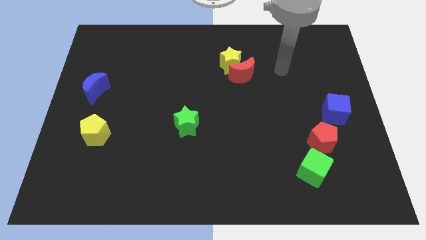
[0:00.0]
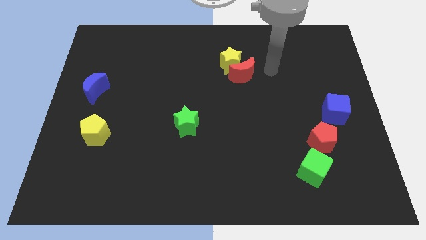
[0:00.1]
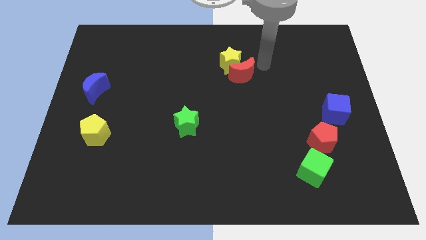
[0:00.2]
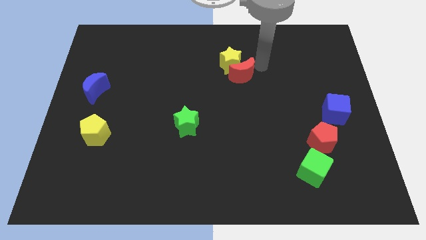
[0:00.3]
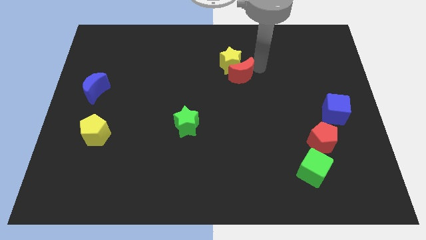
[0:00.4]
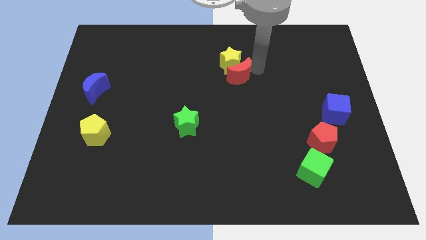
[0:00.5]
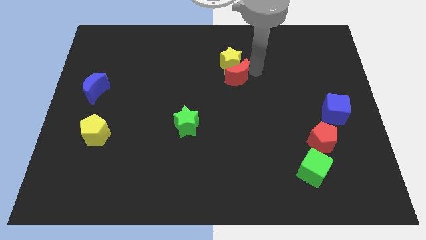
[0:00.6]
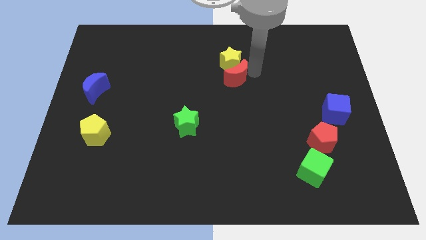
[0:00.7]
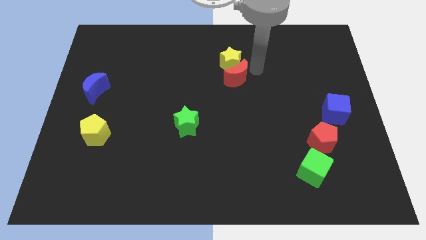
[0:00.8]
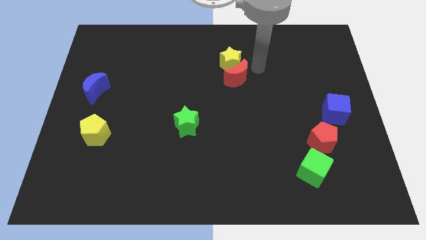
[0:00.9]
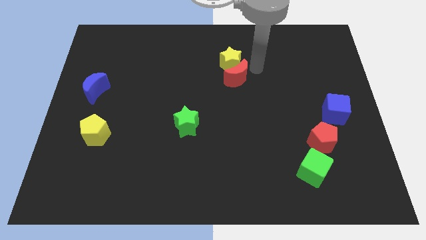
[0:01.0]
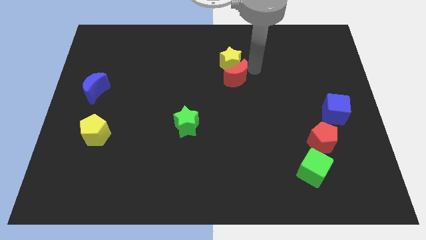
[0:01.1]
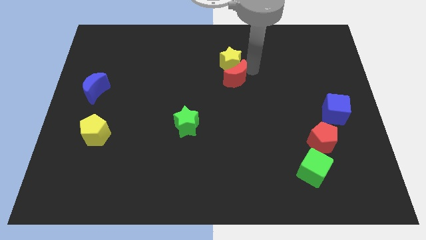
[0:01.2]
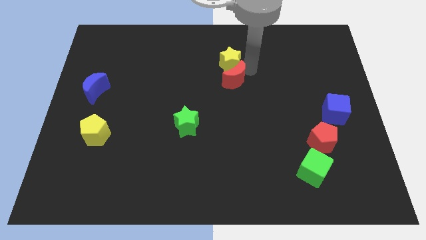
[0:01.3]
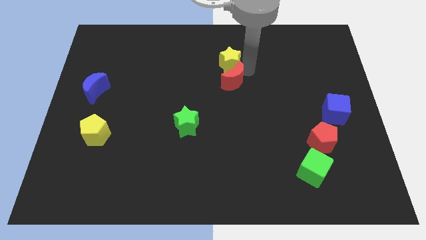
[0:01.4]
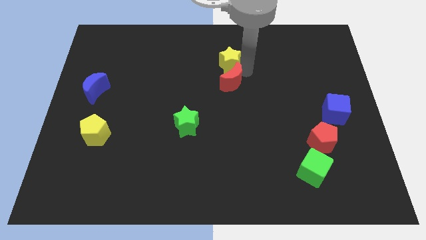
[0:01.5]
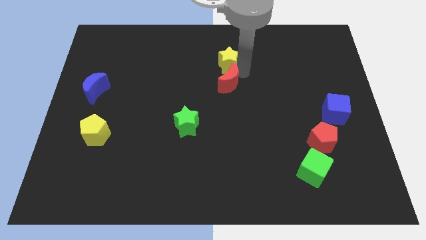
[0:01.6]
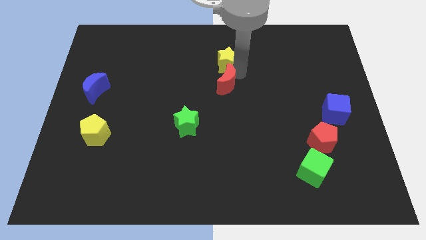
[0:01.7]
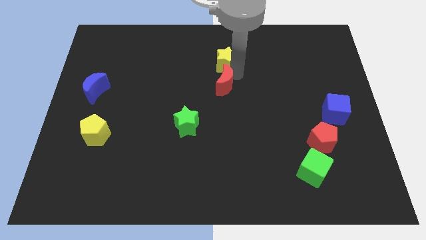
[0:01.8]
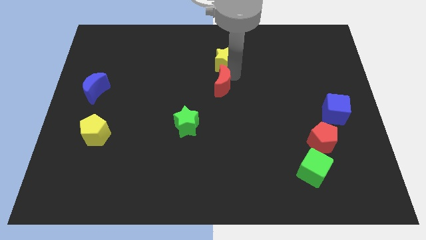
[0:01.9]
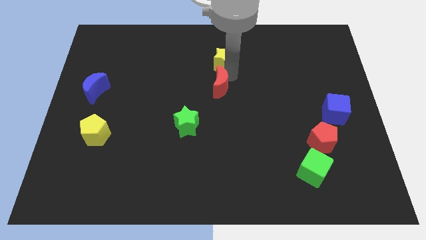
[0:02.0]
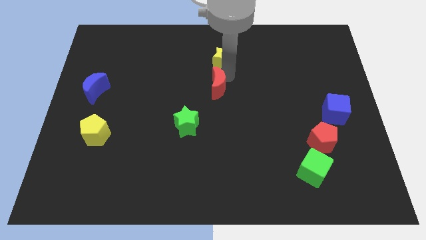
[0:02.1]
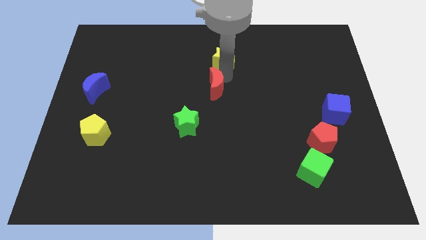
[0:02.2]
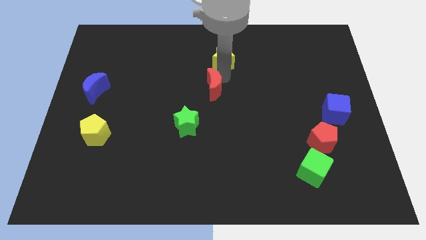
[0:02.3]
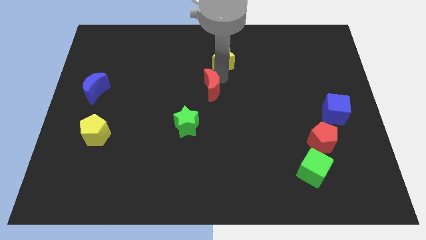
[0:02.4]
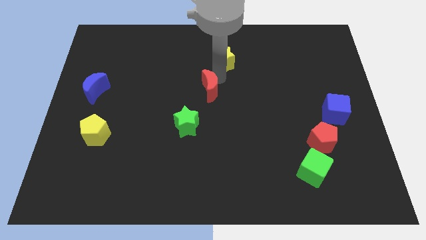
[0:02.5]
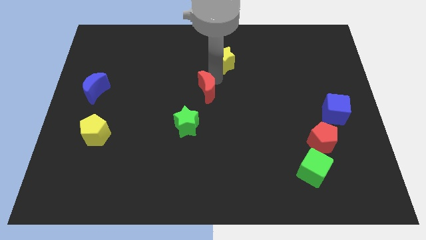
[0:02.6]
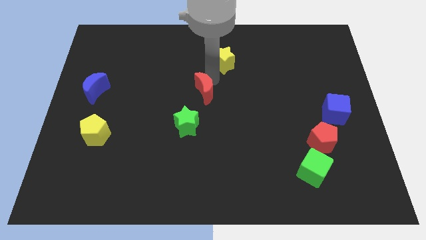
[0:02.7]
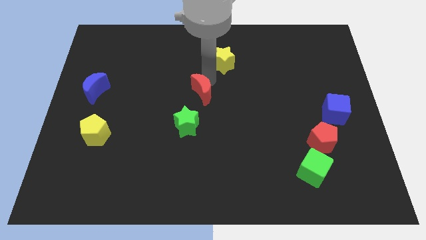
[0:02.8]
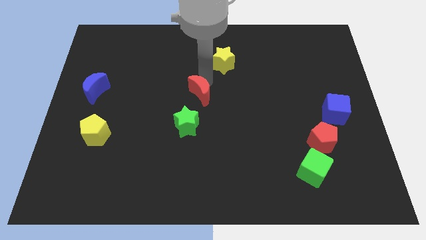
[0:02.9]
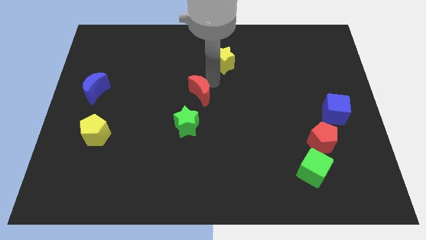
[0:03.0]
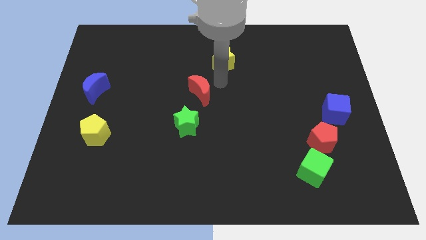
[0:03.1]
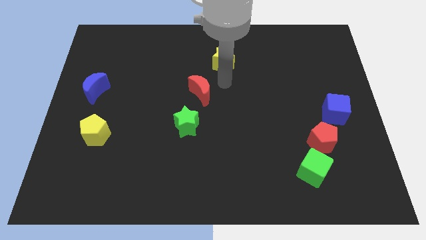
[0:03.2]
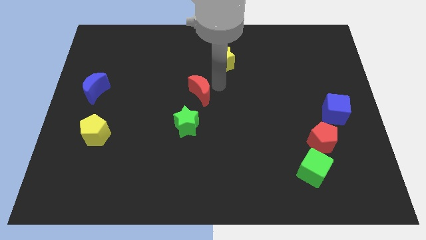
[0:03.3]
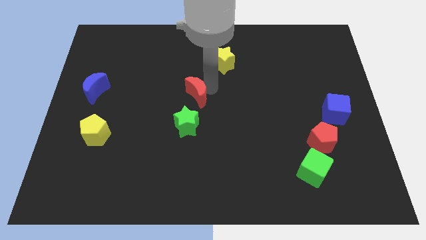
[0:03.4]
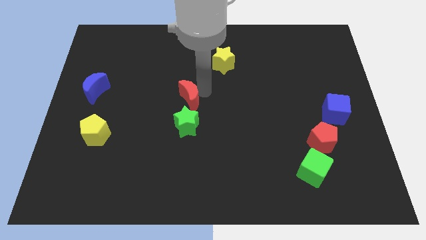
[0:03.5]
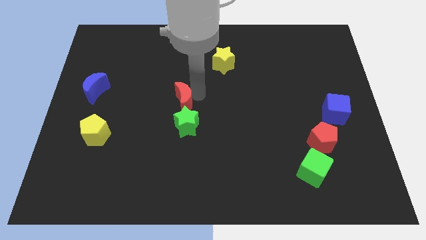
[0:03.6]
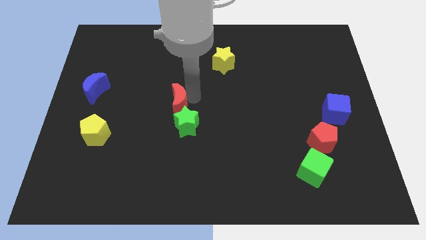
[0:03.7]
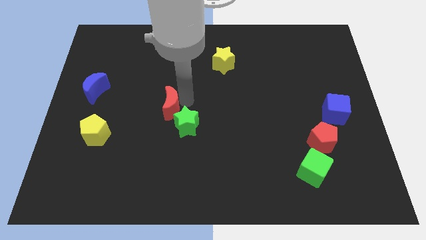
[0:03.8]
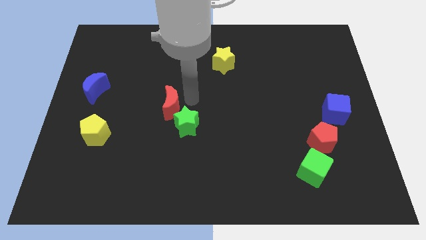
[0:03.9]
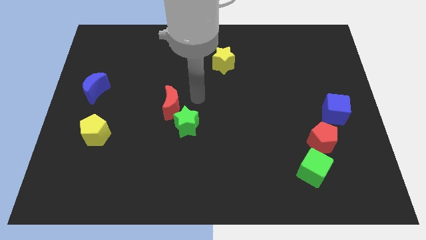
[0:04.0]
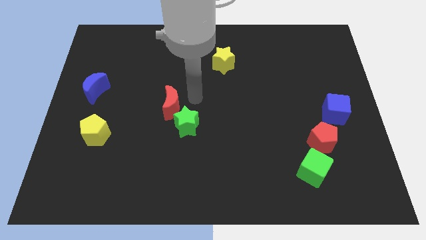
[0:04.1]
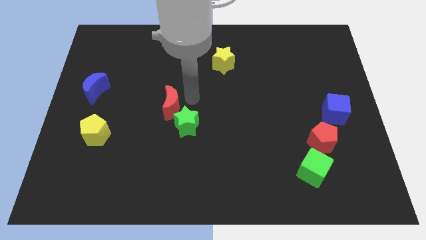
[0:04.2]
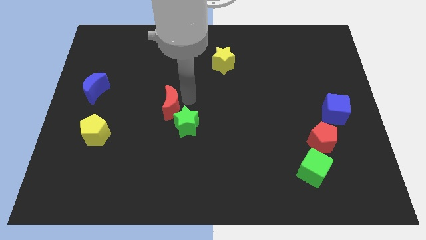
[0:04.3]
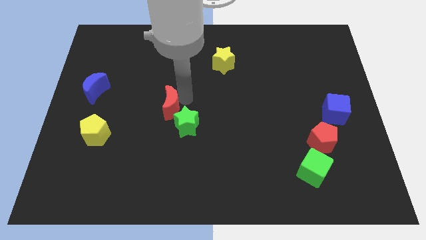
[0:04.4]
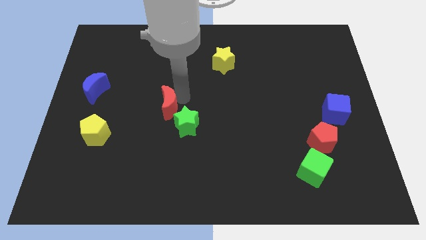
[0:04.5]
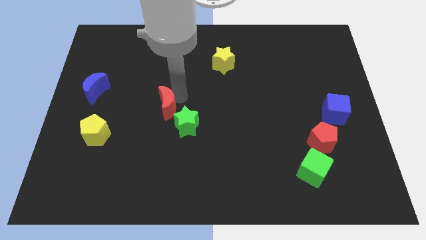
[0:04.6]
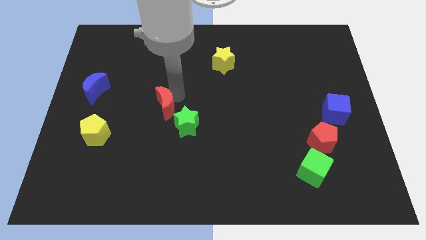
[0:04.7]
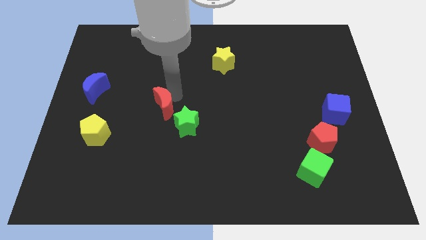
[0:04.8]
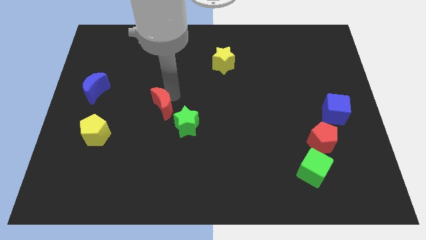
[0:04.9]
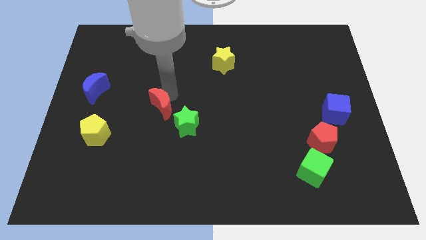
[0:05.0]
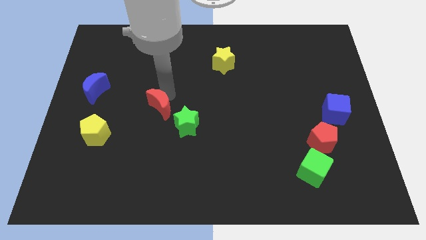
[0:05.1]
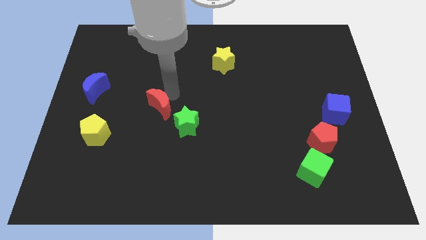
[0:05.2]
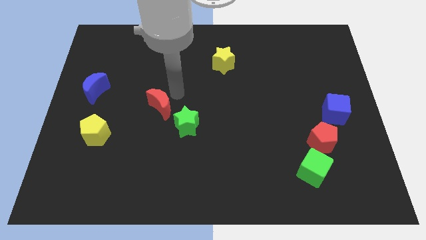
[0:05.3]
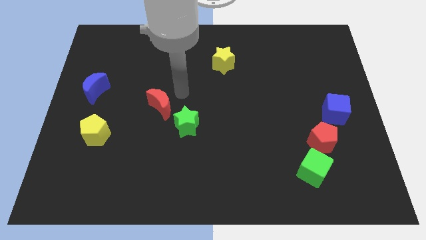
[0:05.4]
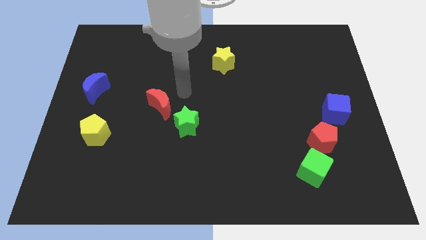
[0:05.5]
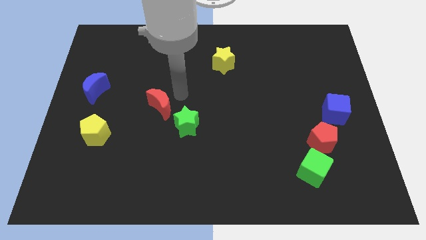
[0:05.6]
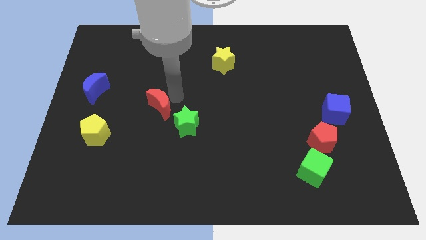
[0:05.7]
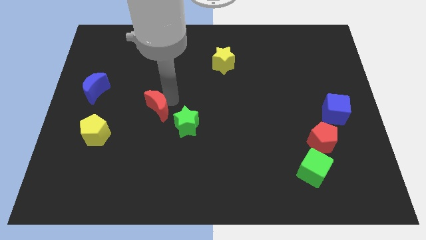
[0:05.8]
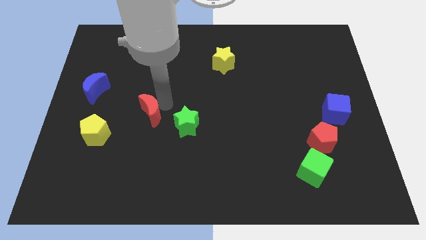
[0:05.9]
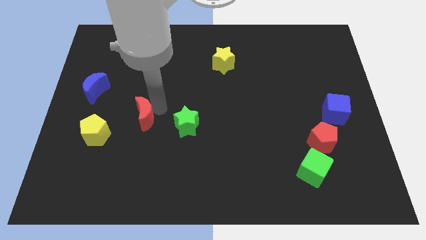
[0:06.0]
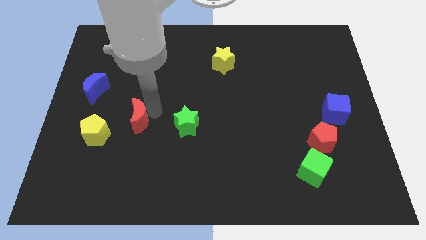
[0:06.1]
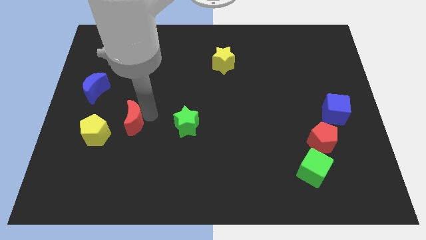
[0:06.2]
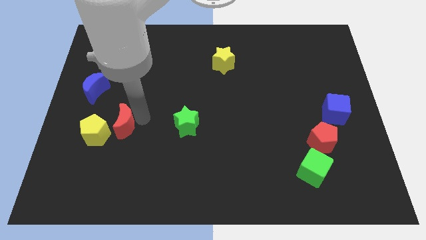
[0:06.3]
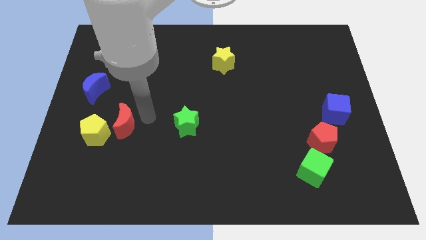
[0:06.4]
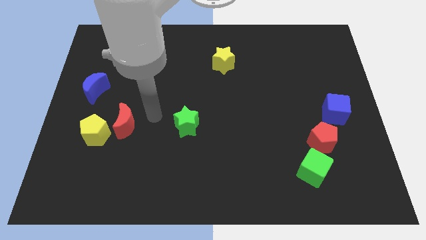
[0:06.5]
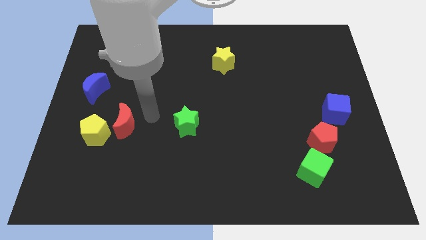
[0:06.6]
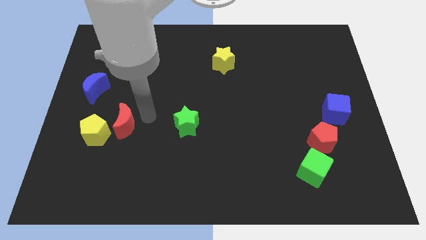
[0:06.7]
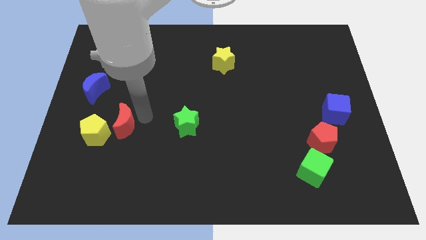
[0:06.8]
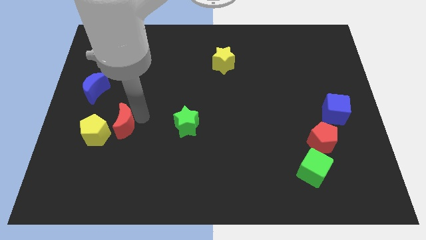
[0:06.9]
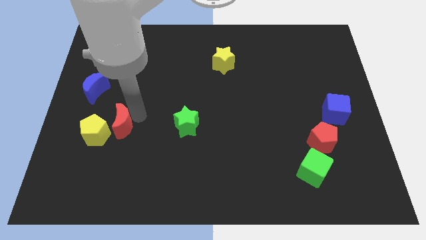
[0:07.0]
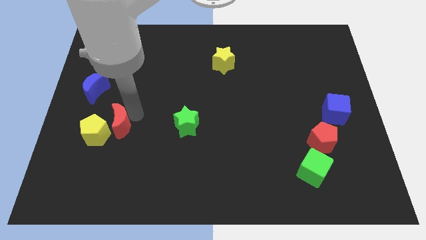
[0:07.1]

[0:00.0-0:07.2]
put the red moon towards the yellow pentagon
